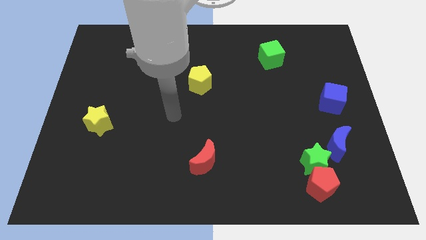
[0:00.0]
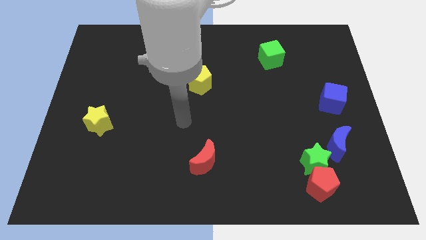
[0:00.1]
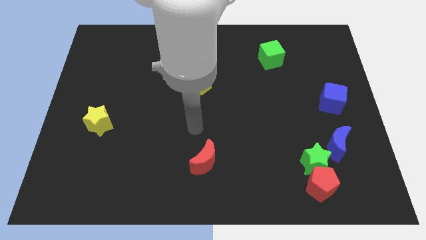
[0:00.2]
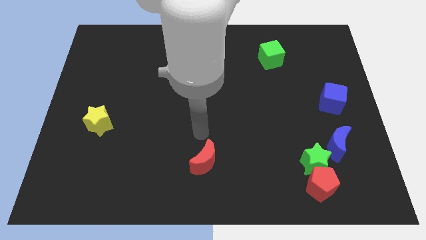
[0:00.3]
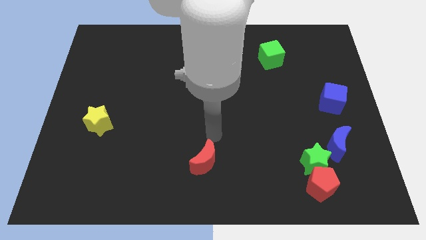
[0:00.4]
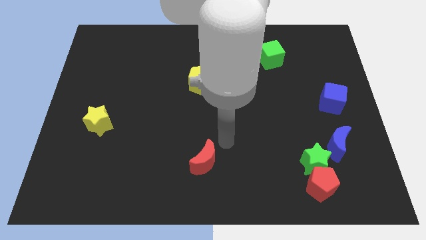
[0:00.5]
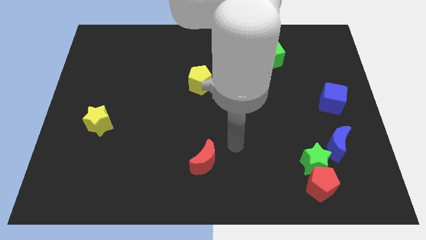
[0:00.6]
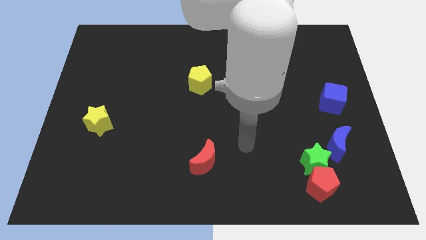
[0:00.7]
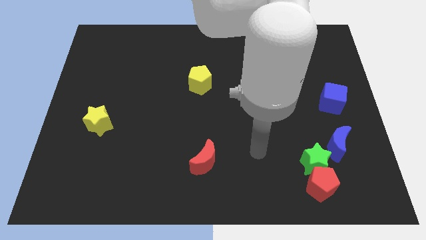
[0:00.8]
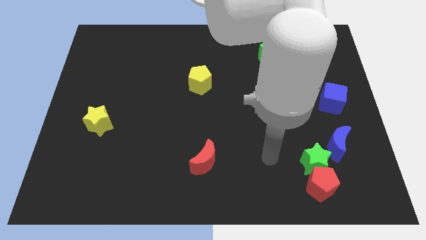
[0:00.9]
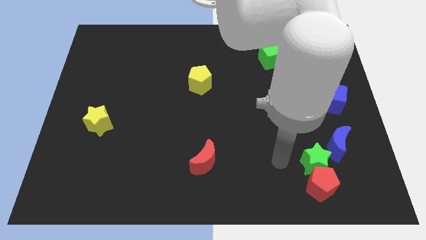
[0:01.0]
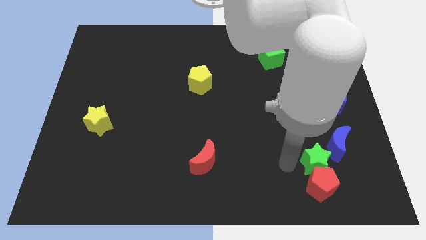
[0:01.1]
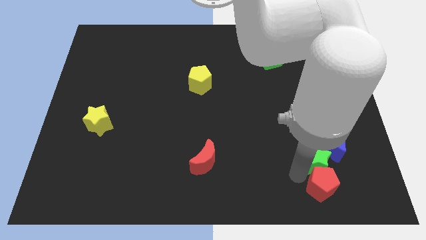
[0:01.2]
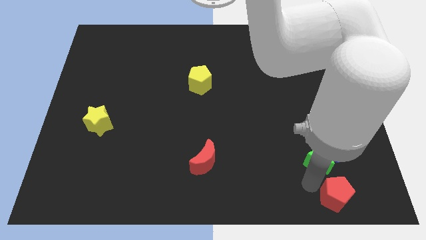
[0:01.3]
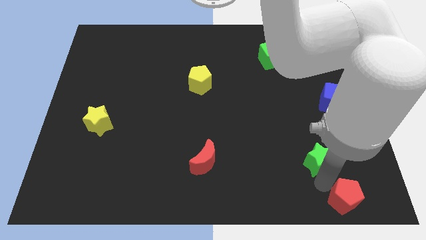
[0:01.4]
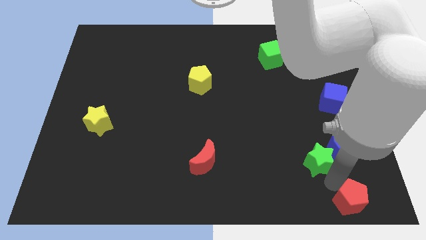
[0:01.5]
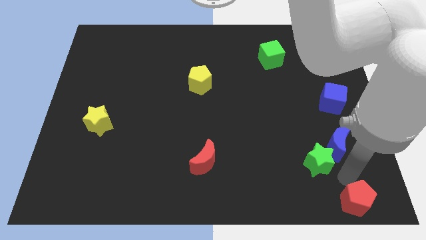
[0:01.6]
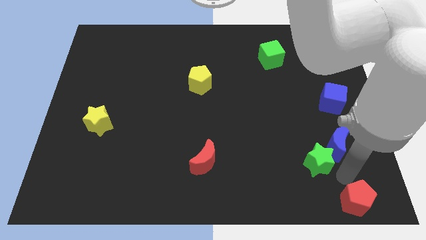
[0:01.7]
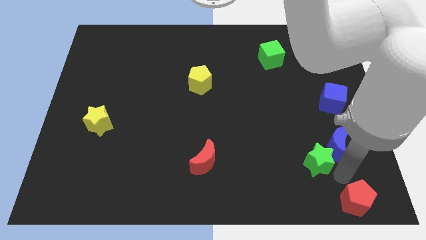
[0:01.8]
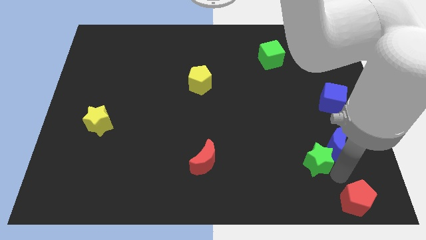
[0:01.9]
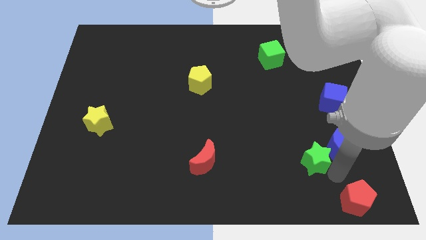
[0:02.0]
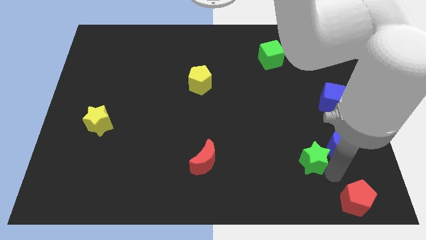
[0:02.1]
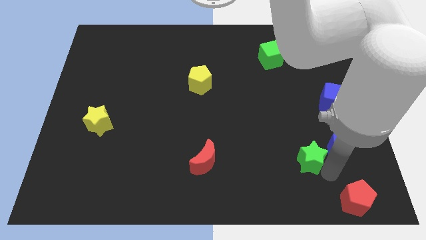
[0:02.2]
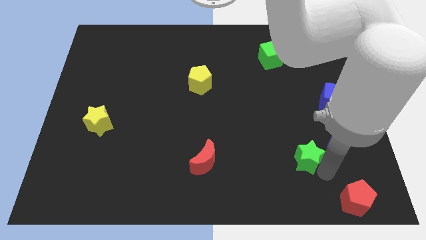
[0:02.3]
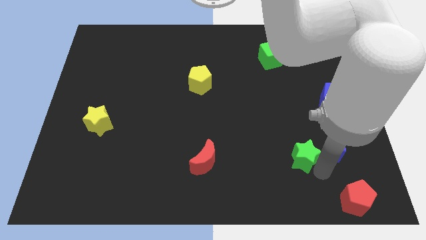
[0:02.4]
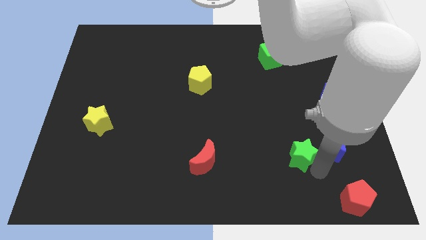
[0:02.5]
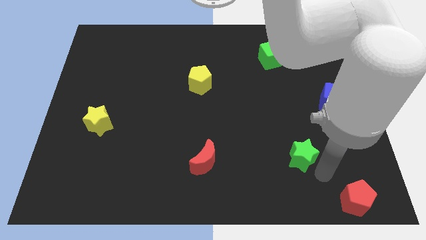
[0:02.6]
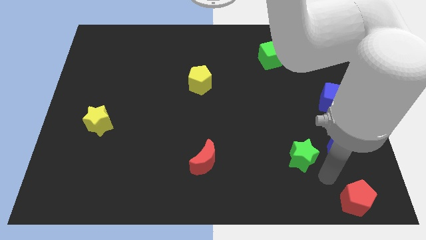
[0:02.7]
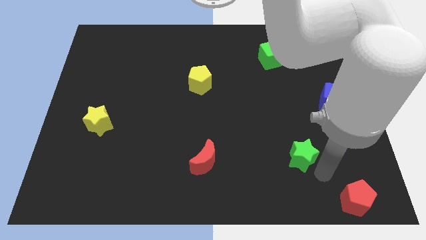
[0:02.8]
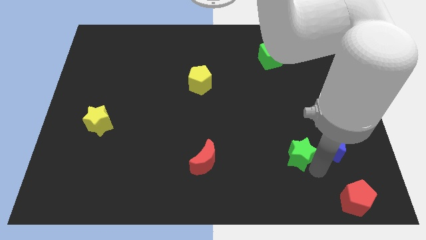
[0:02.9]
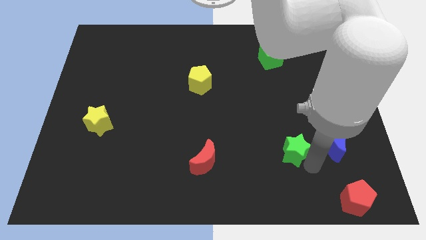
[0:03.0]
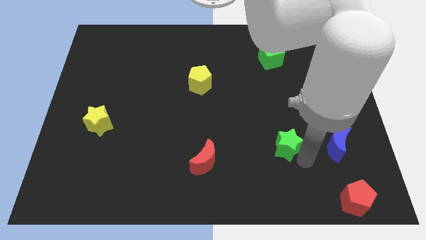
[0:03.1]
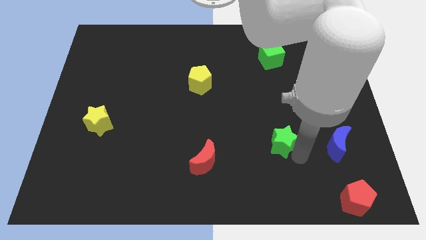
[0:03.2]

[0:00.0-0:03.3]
move the green star a little up and to the left diagonally

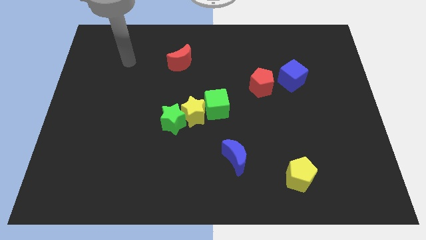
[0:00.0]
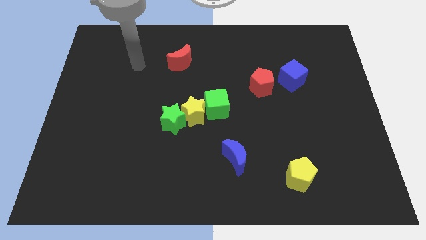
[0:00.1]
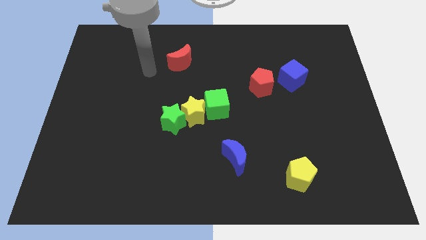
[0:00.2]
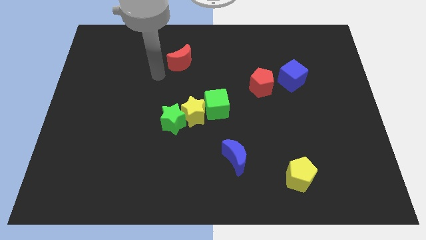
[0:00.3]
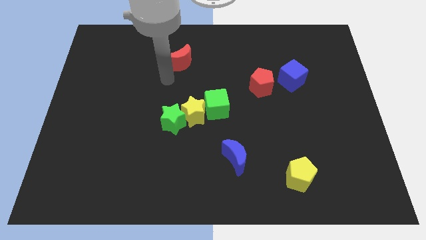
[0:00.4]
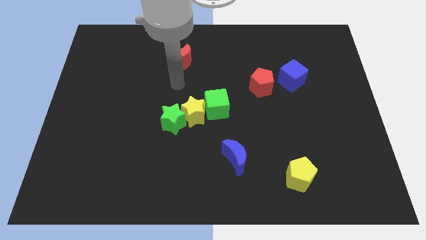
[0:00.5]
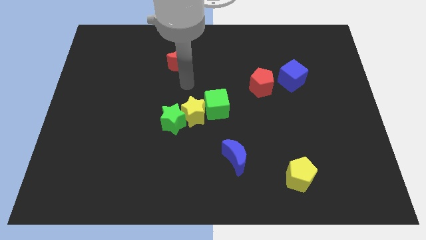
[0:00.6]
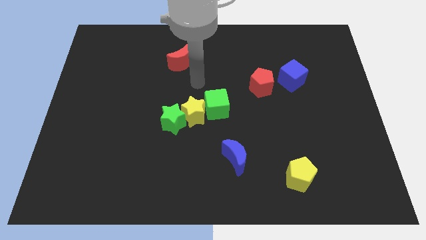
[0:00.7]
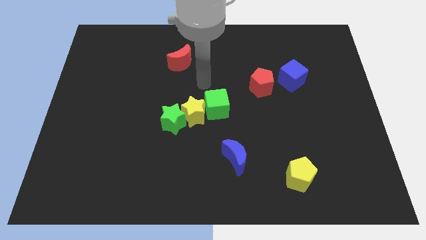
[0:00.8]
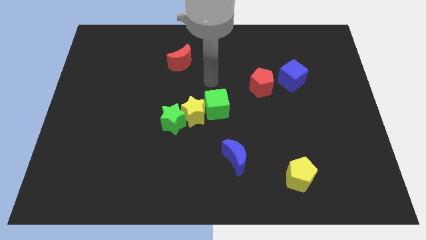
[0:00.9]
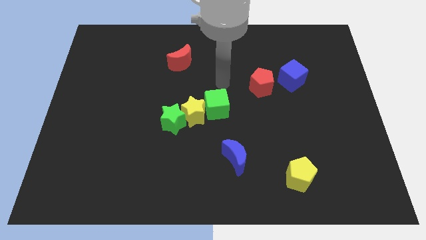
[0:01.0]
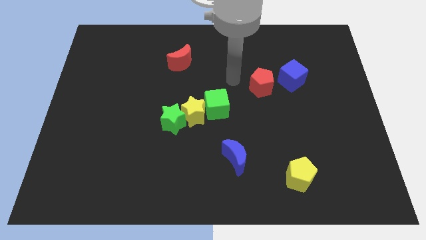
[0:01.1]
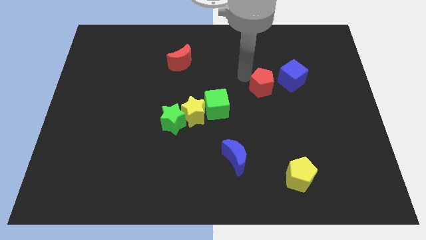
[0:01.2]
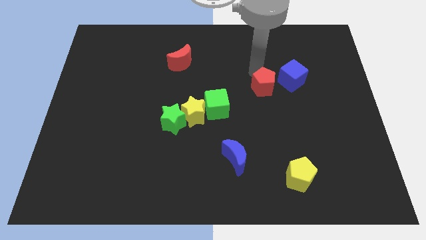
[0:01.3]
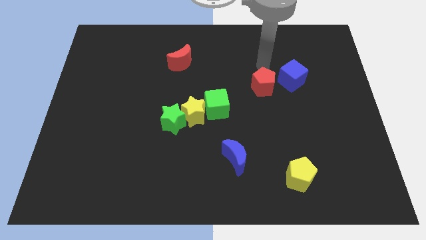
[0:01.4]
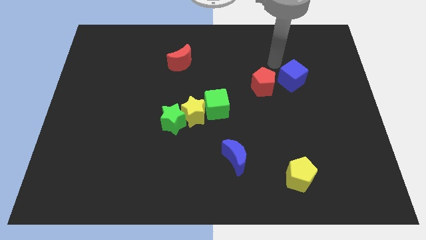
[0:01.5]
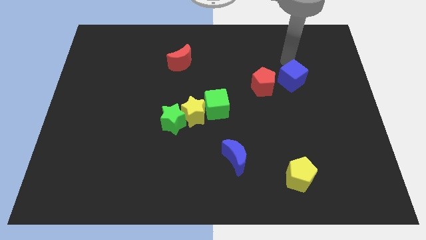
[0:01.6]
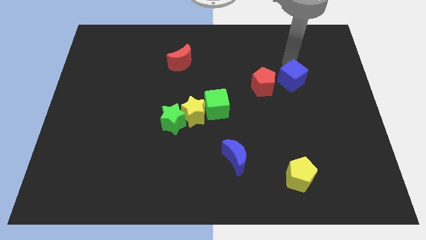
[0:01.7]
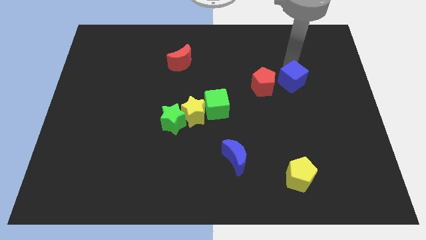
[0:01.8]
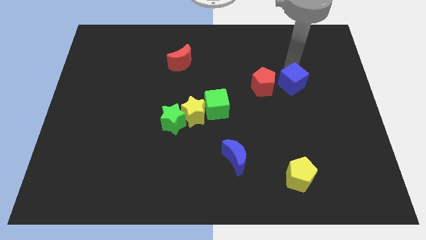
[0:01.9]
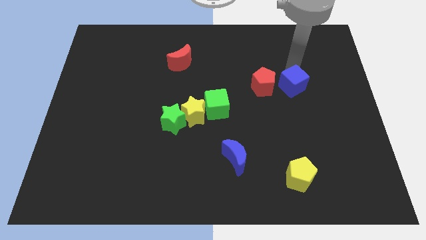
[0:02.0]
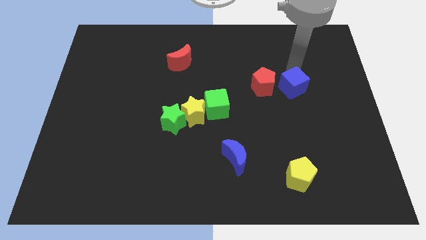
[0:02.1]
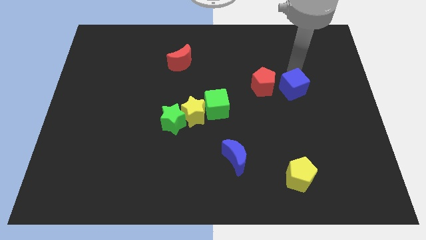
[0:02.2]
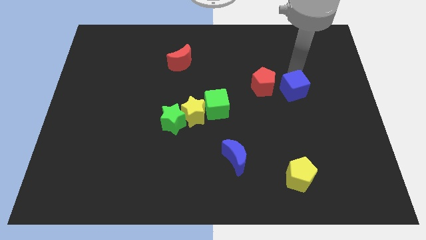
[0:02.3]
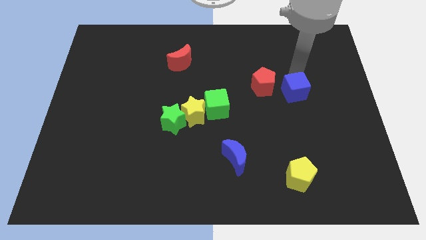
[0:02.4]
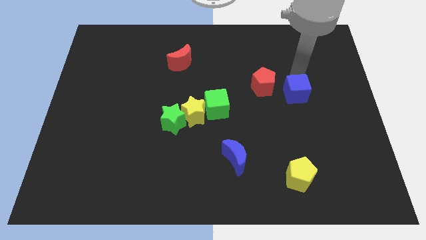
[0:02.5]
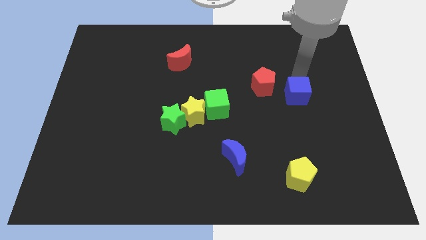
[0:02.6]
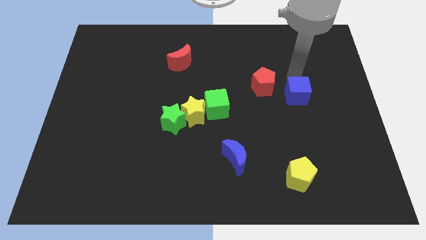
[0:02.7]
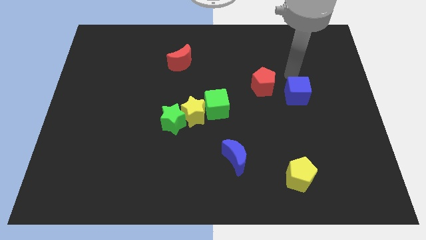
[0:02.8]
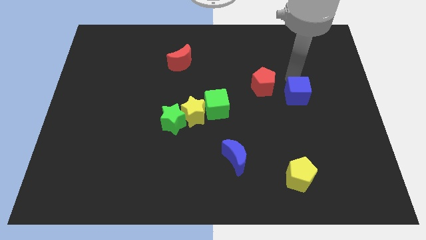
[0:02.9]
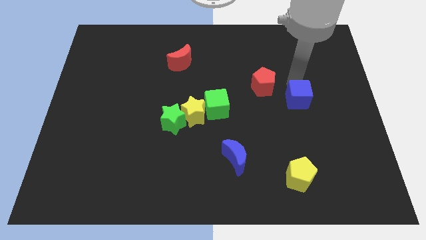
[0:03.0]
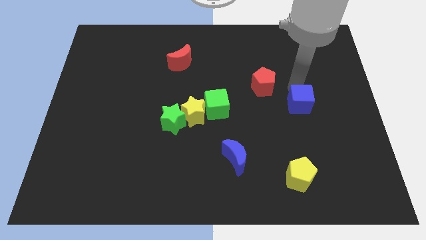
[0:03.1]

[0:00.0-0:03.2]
push the blue cube a little bit downwards

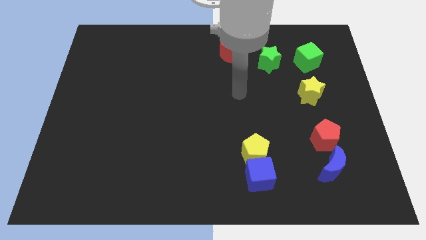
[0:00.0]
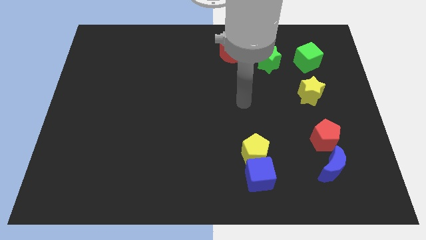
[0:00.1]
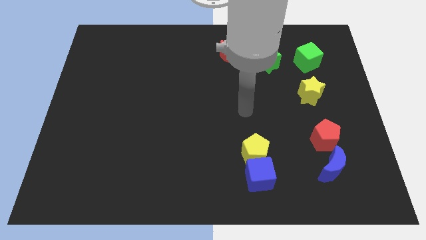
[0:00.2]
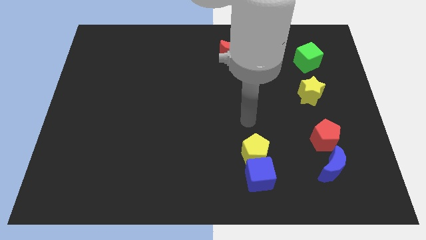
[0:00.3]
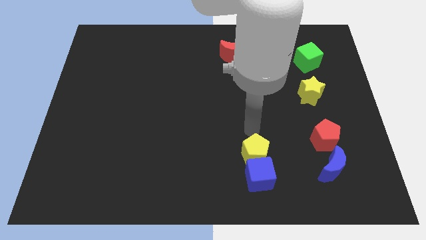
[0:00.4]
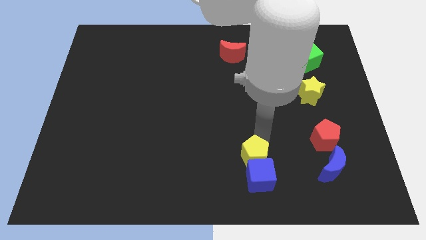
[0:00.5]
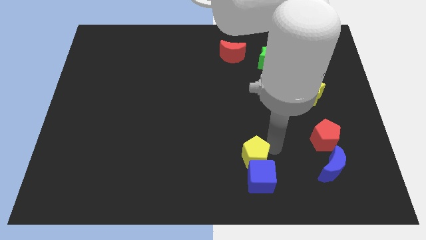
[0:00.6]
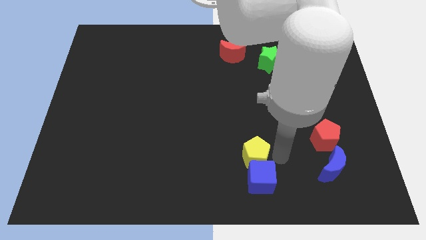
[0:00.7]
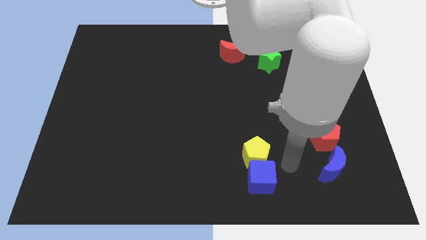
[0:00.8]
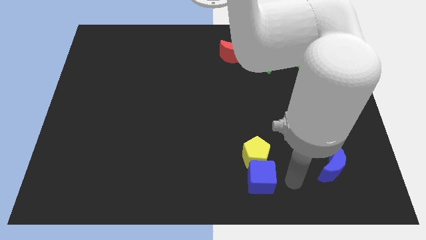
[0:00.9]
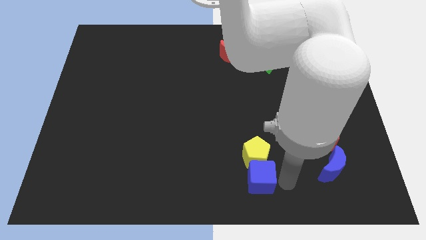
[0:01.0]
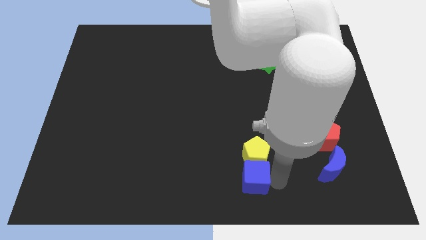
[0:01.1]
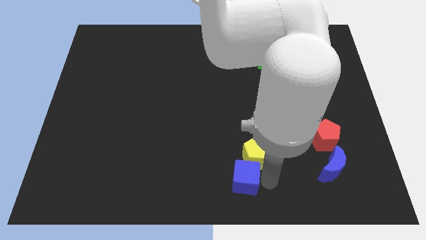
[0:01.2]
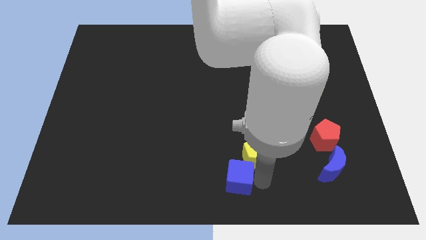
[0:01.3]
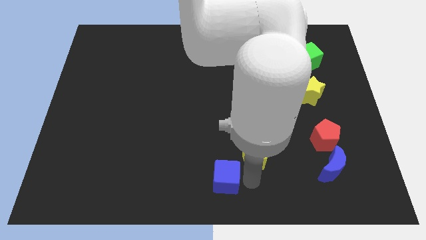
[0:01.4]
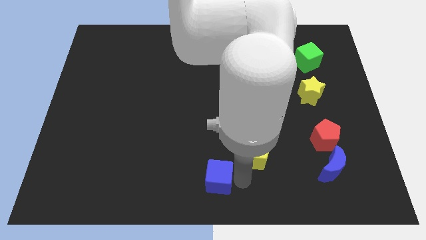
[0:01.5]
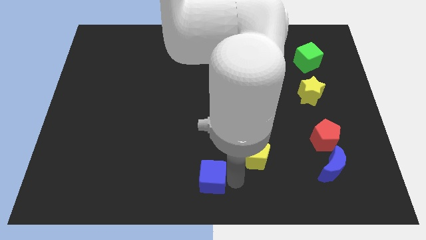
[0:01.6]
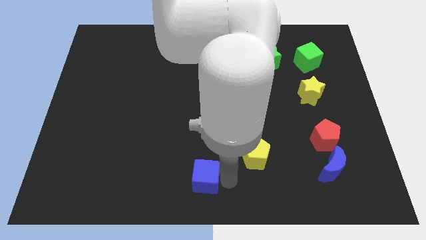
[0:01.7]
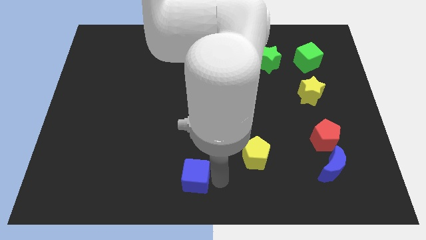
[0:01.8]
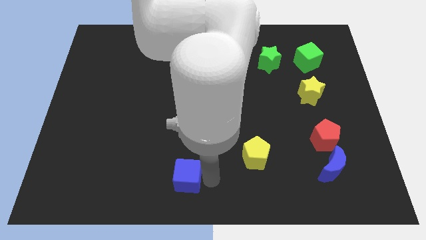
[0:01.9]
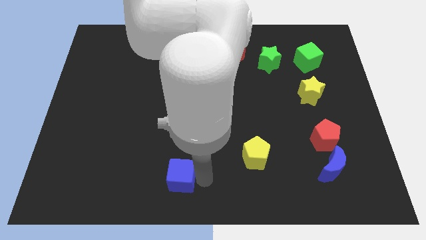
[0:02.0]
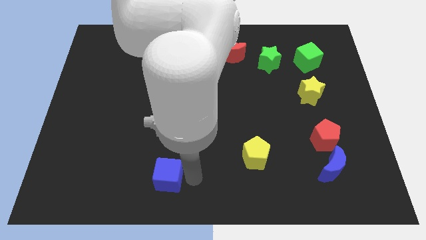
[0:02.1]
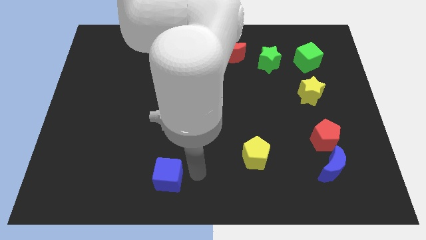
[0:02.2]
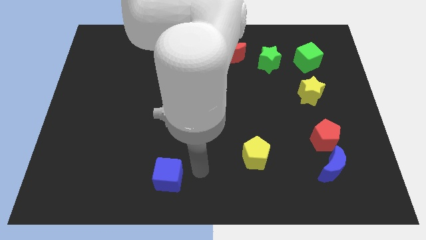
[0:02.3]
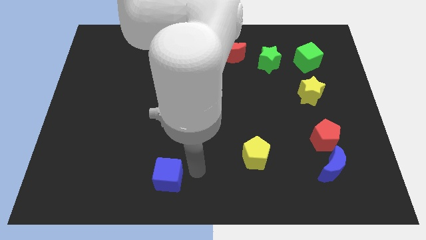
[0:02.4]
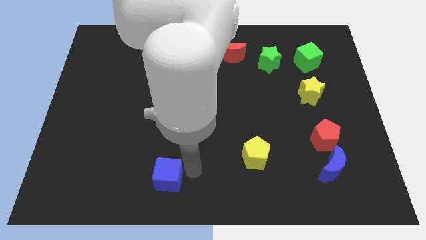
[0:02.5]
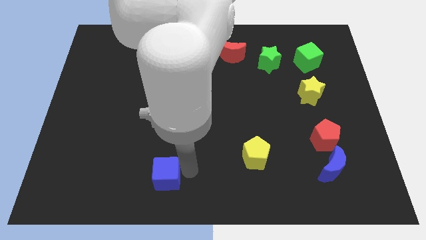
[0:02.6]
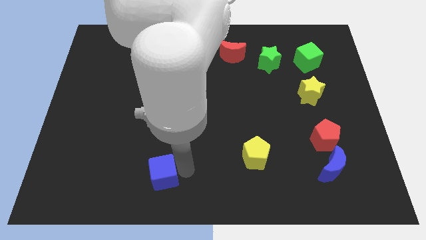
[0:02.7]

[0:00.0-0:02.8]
move the blue cube to the left
